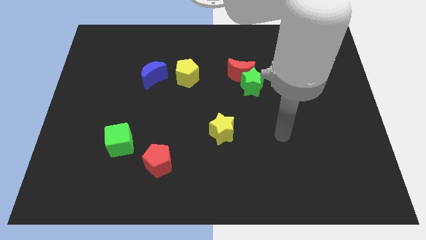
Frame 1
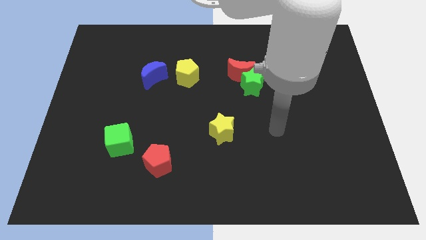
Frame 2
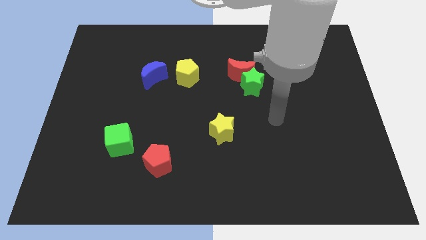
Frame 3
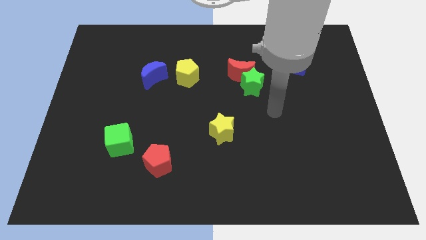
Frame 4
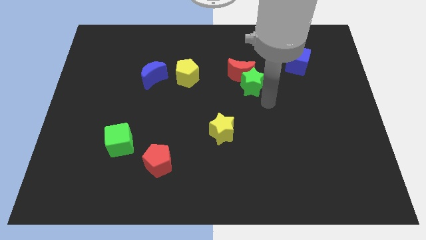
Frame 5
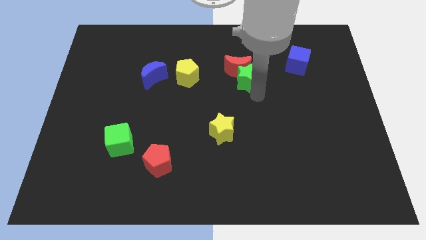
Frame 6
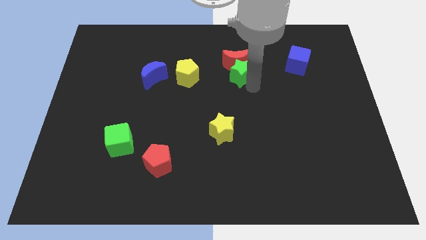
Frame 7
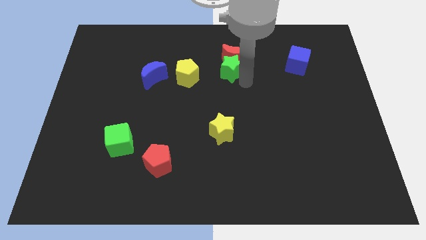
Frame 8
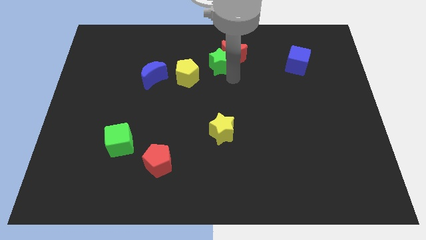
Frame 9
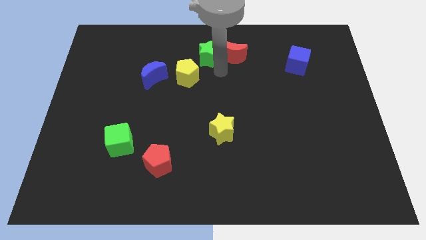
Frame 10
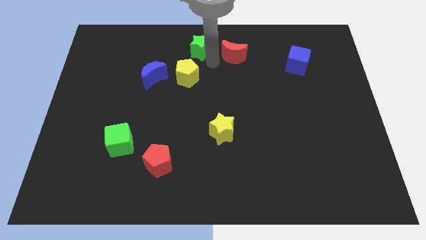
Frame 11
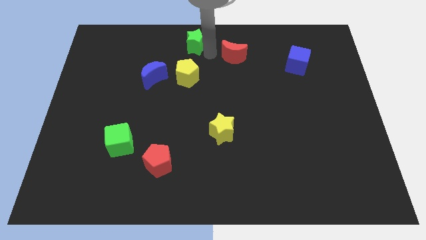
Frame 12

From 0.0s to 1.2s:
pull the red moon apart from the green star

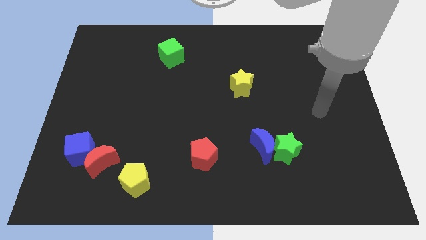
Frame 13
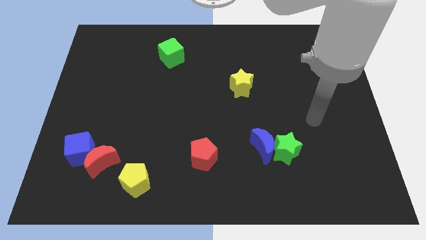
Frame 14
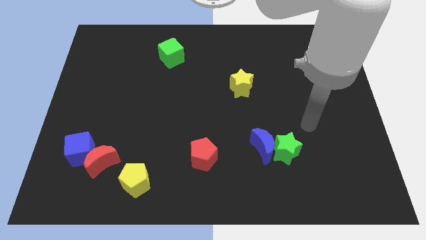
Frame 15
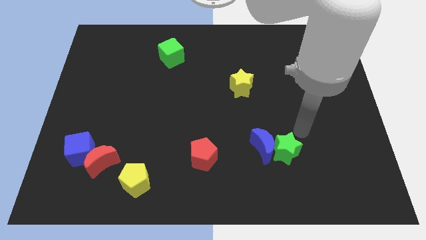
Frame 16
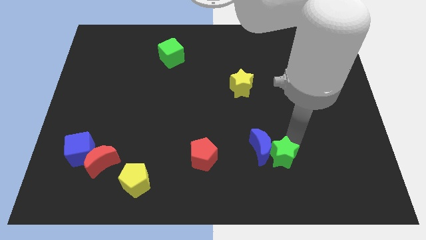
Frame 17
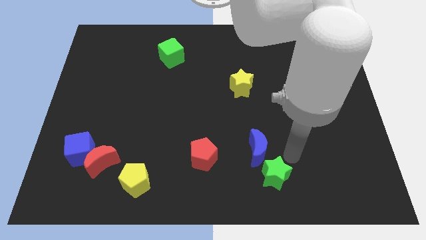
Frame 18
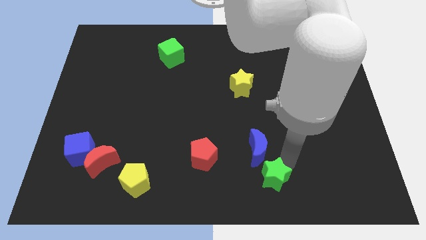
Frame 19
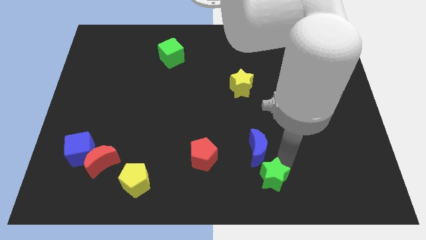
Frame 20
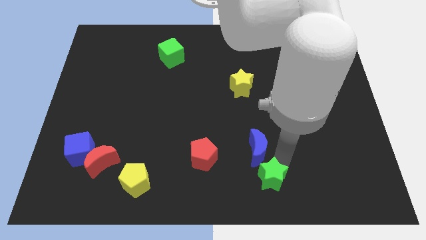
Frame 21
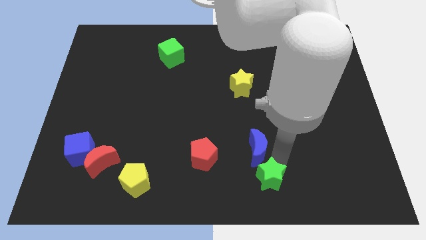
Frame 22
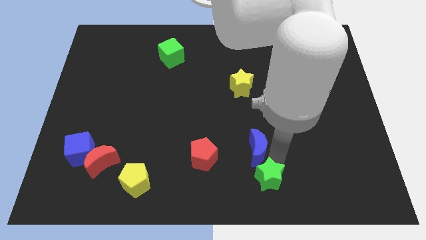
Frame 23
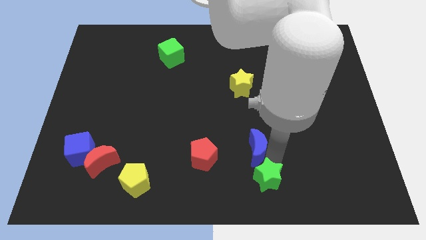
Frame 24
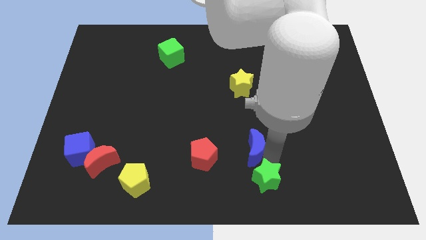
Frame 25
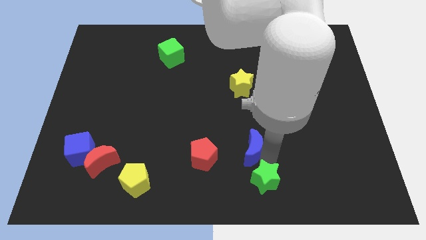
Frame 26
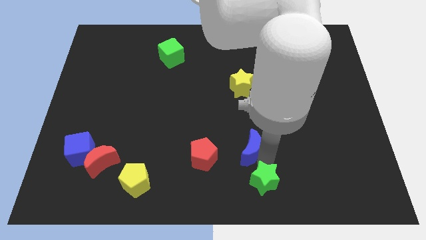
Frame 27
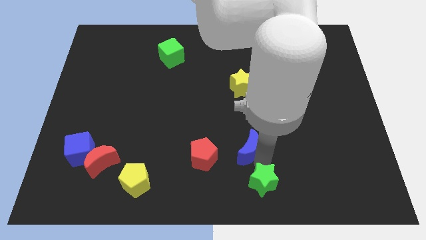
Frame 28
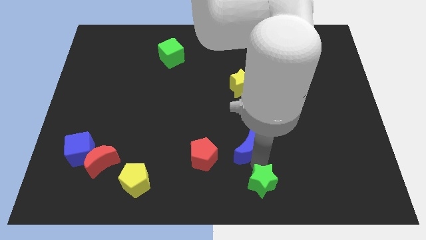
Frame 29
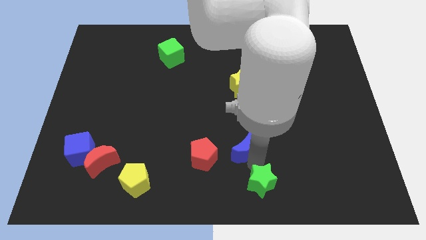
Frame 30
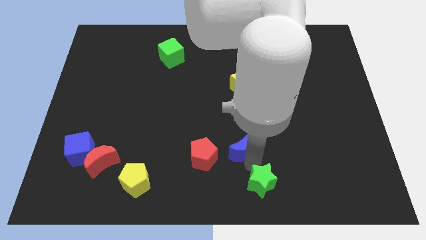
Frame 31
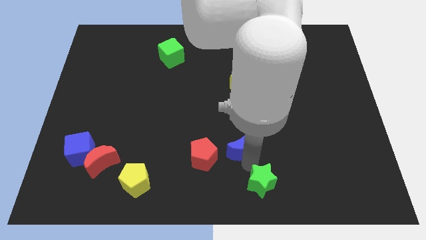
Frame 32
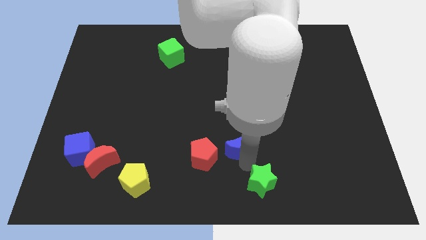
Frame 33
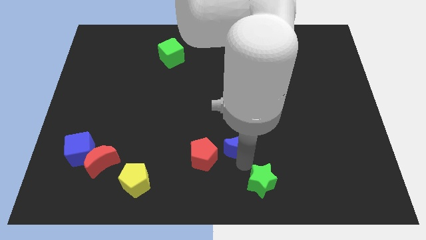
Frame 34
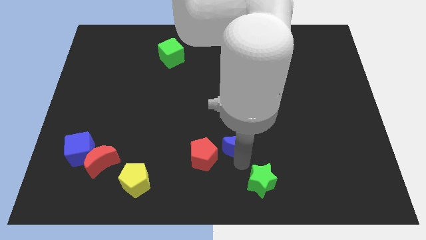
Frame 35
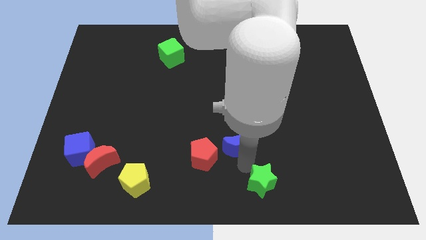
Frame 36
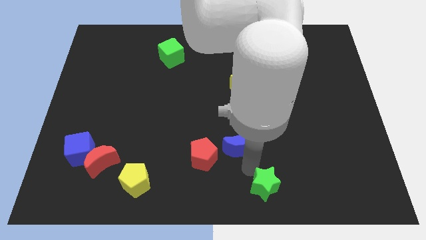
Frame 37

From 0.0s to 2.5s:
move the blue moon away from the green star

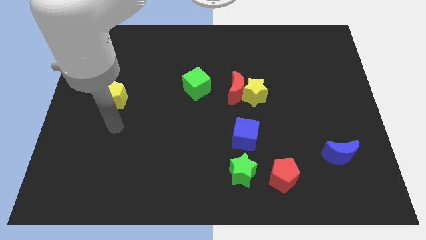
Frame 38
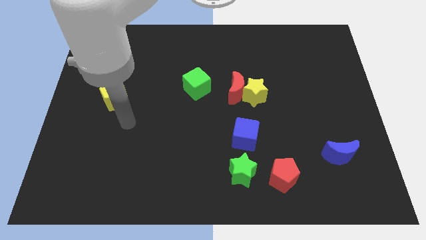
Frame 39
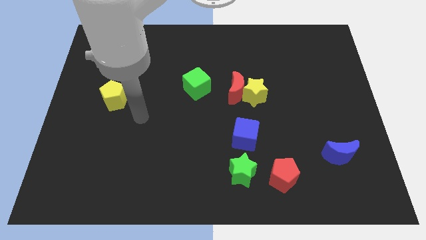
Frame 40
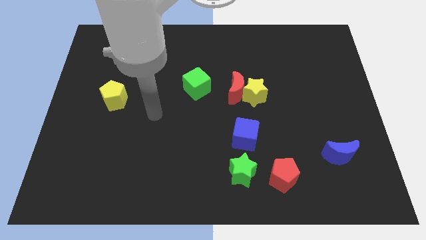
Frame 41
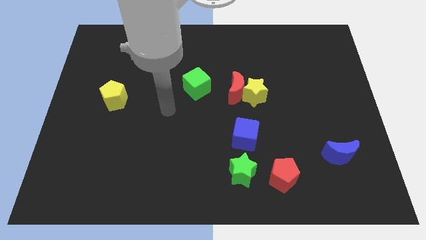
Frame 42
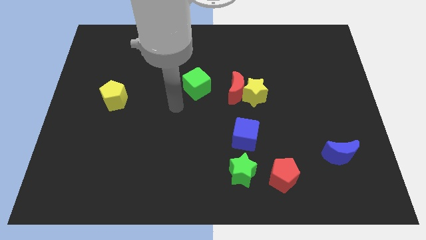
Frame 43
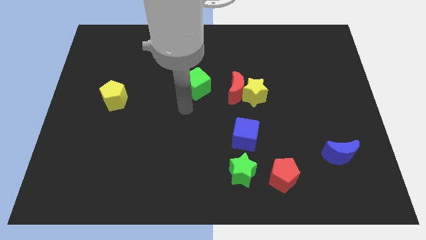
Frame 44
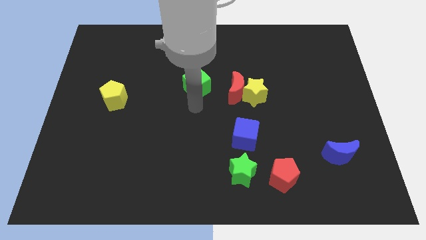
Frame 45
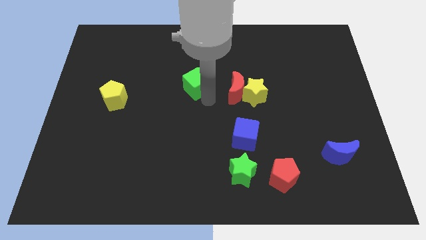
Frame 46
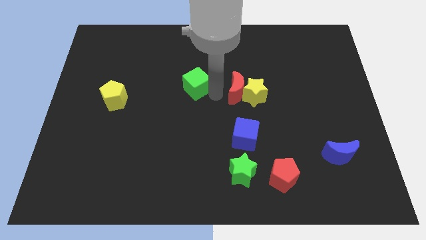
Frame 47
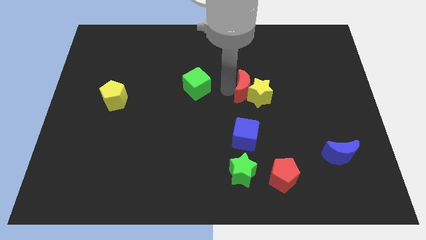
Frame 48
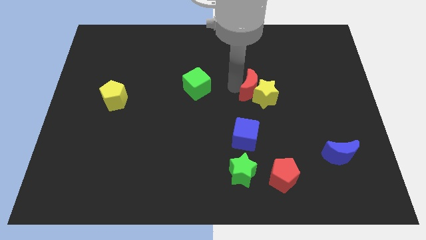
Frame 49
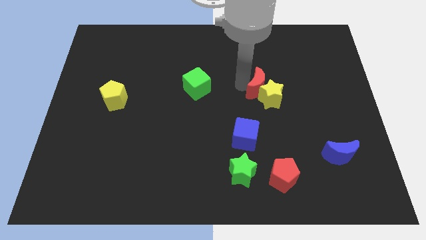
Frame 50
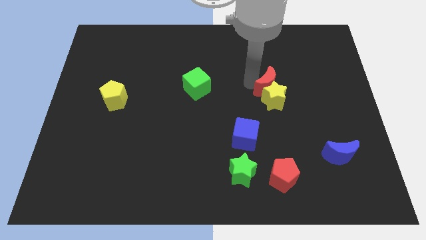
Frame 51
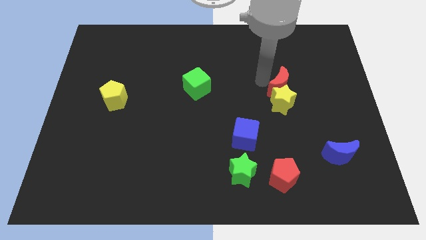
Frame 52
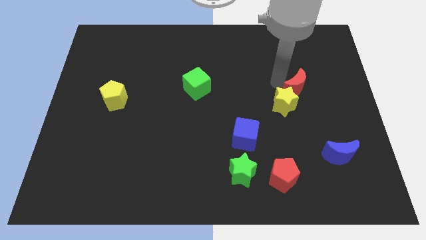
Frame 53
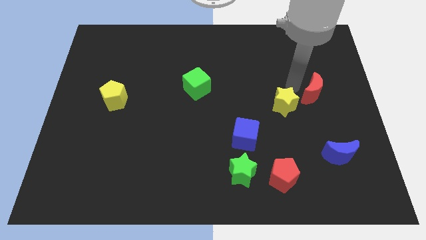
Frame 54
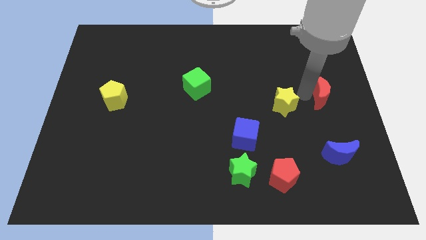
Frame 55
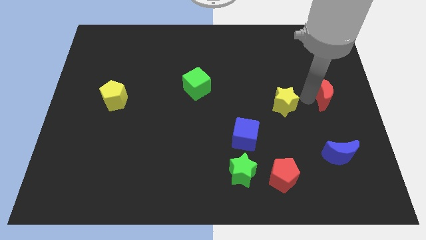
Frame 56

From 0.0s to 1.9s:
pull the yellow star apart from the red moon

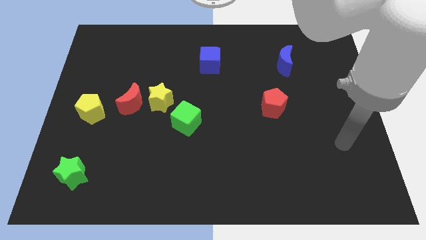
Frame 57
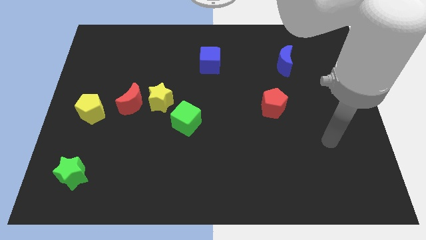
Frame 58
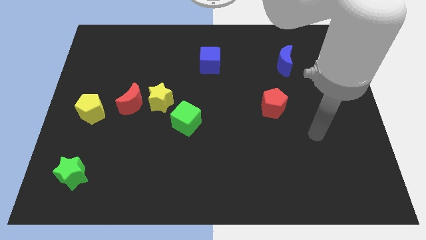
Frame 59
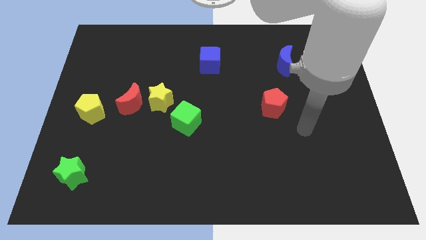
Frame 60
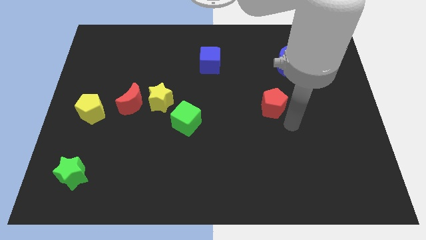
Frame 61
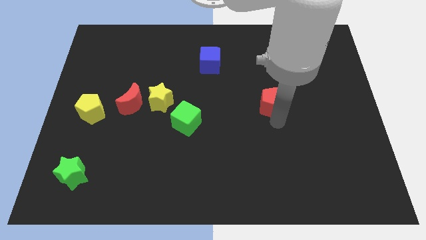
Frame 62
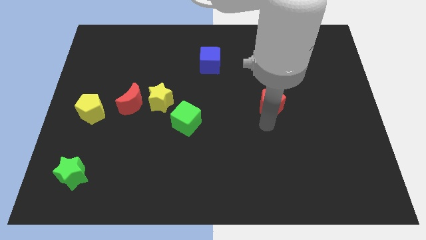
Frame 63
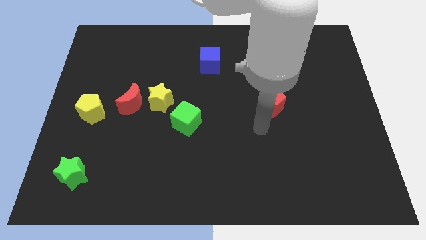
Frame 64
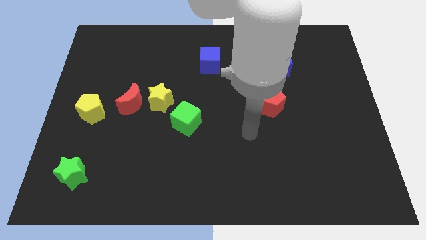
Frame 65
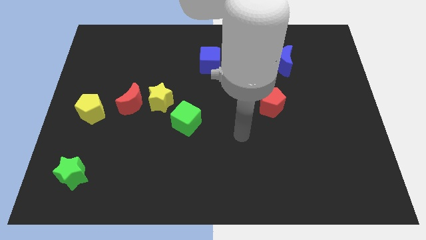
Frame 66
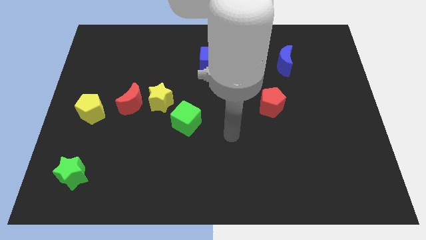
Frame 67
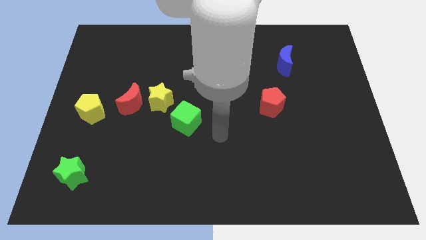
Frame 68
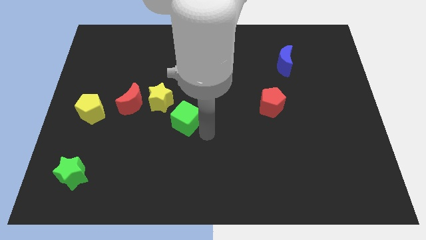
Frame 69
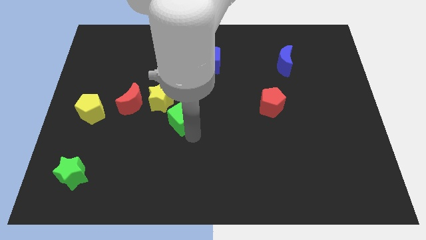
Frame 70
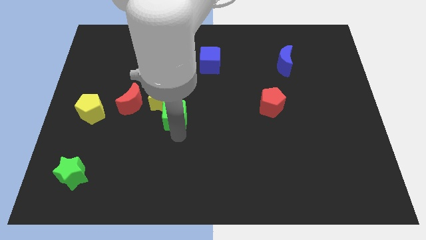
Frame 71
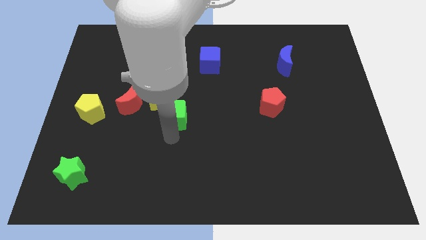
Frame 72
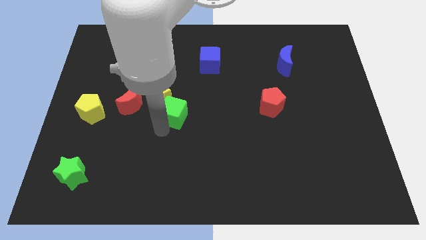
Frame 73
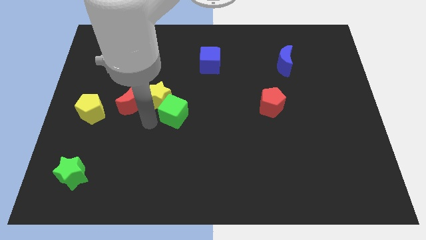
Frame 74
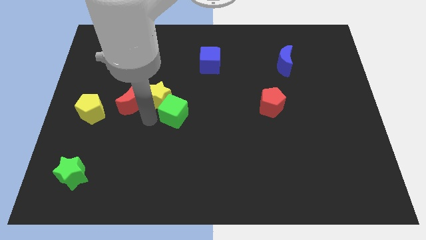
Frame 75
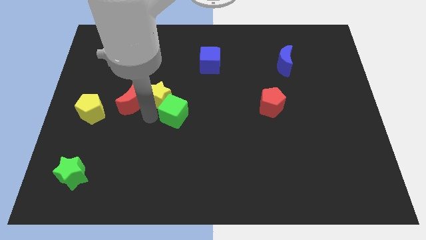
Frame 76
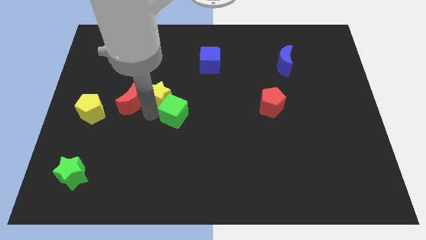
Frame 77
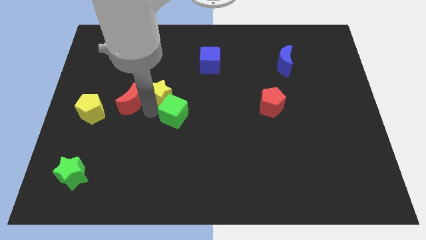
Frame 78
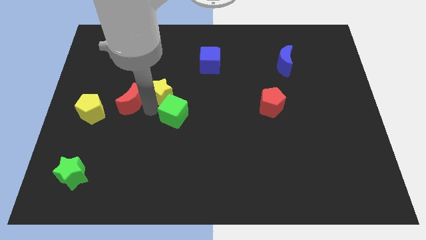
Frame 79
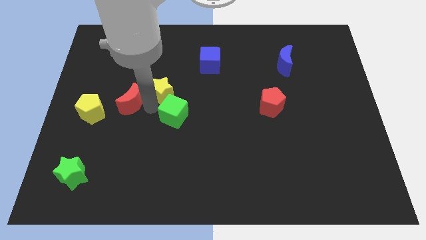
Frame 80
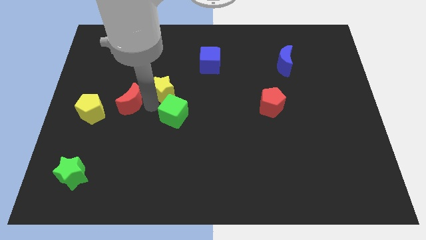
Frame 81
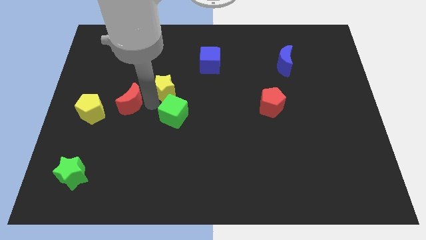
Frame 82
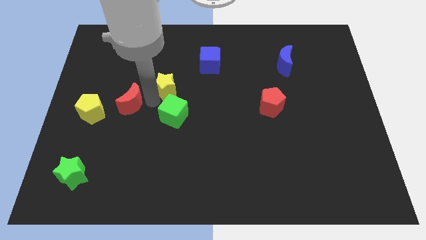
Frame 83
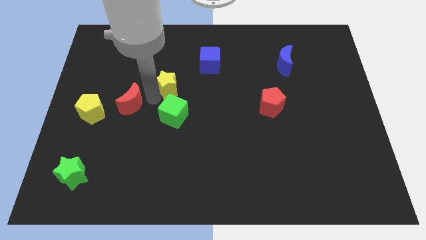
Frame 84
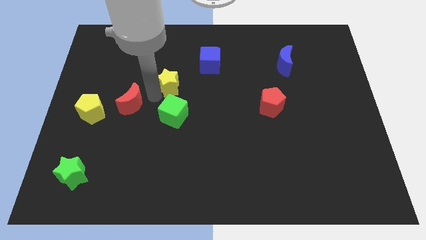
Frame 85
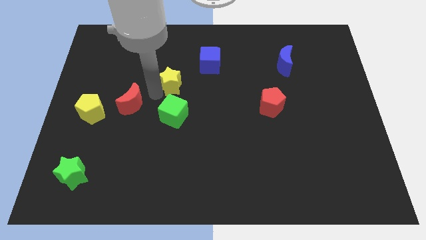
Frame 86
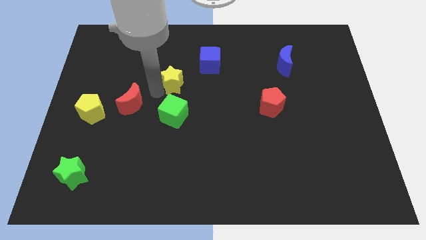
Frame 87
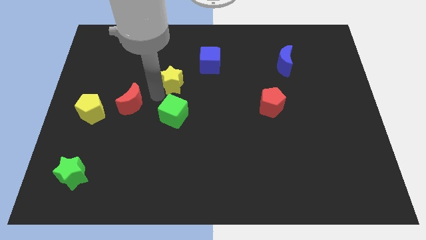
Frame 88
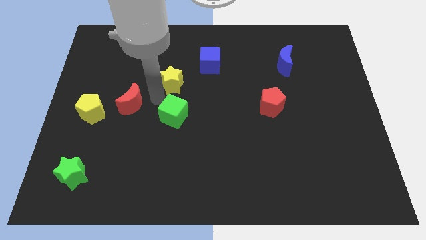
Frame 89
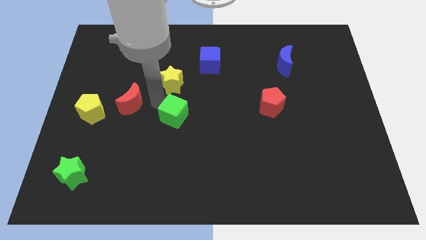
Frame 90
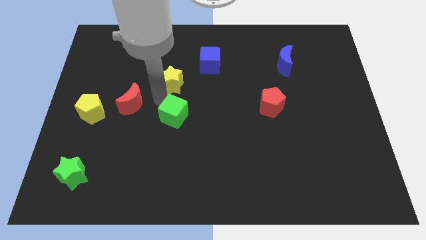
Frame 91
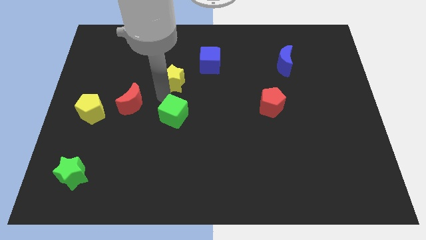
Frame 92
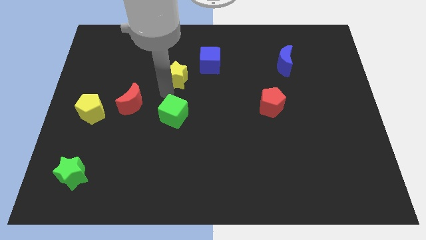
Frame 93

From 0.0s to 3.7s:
separate the yellow star from the red moon and green cube
